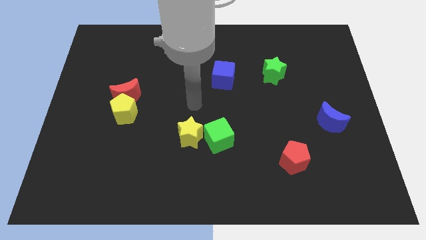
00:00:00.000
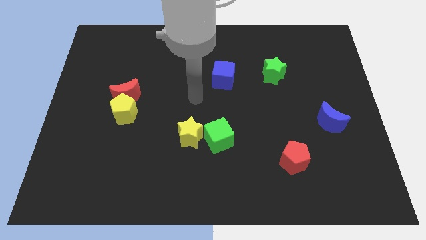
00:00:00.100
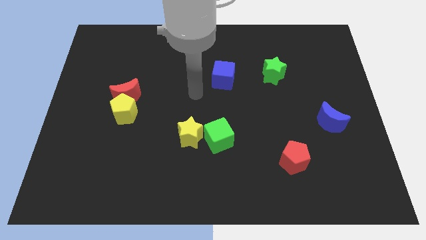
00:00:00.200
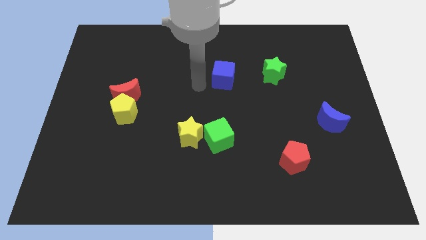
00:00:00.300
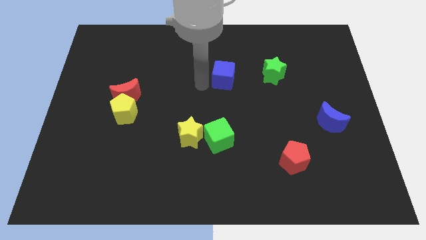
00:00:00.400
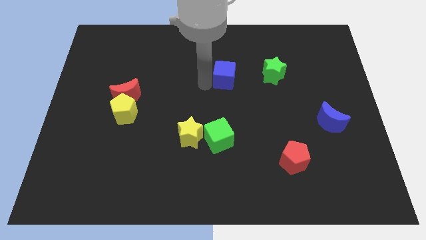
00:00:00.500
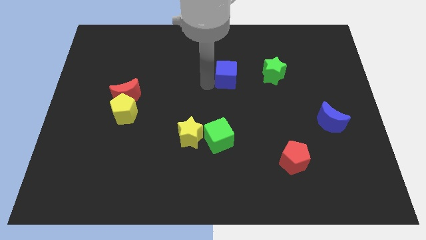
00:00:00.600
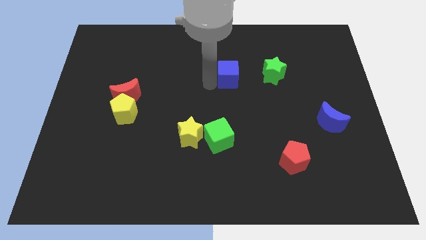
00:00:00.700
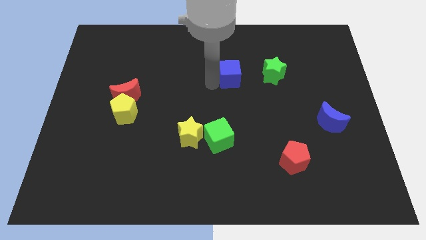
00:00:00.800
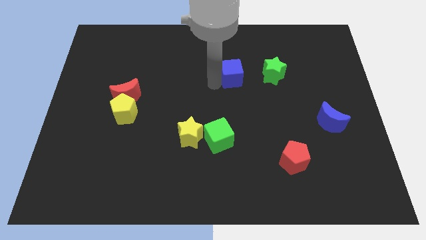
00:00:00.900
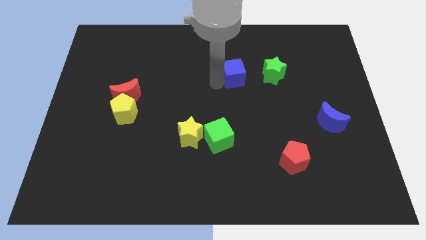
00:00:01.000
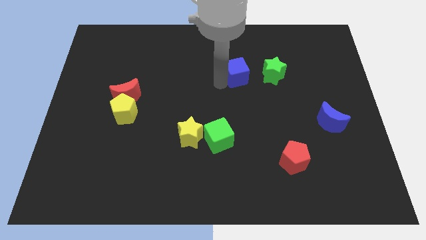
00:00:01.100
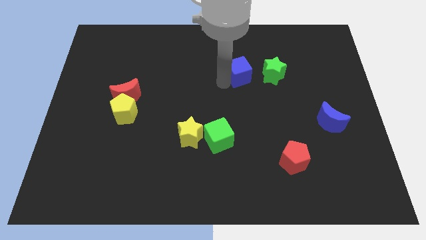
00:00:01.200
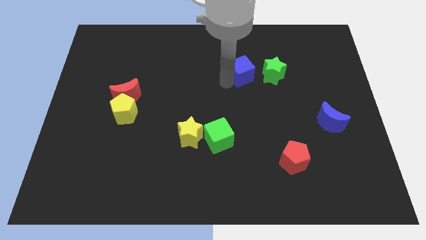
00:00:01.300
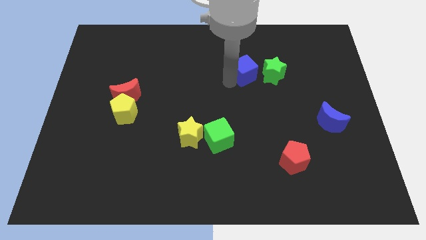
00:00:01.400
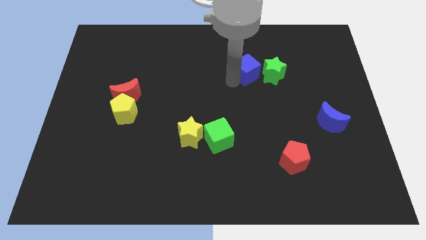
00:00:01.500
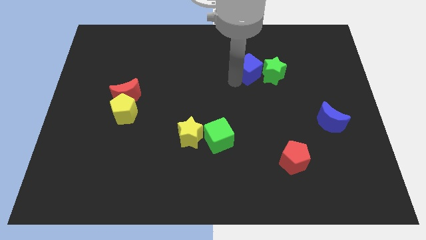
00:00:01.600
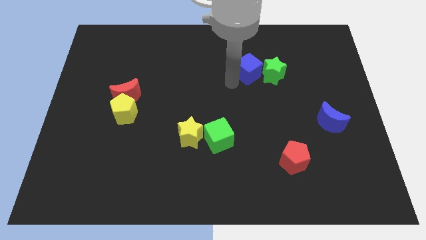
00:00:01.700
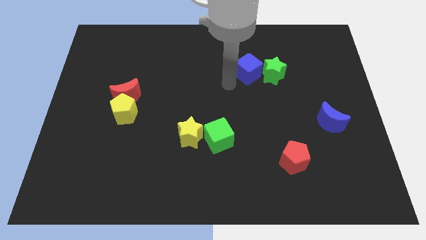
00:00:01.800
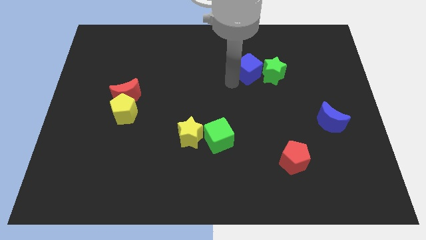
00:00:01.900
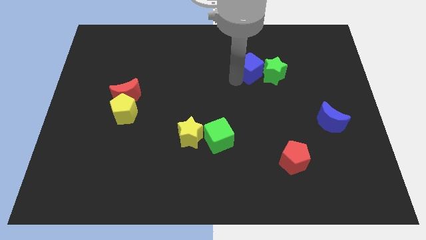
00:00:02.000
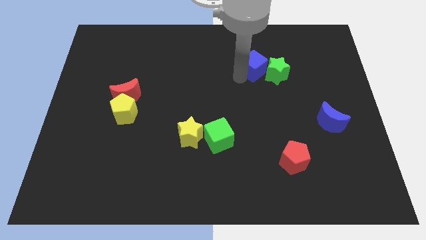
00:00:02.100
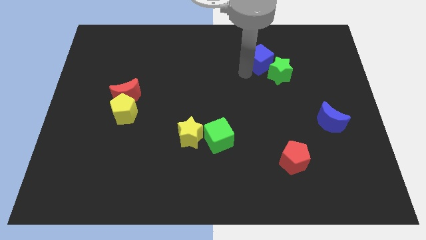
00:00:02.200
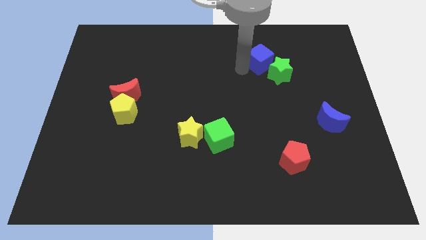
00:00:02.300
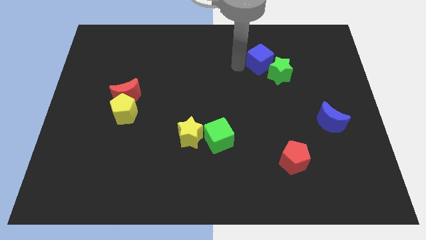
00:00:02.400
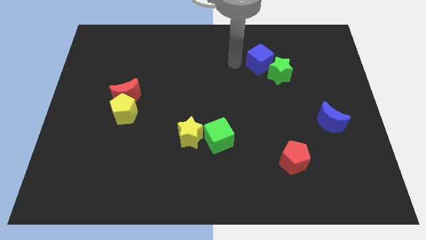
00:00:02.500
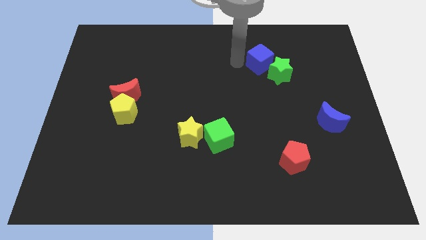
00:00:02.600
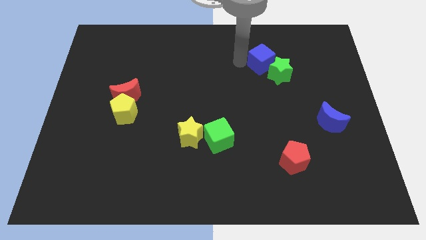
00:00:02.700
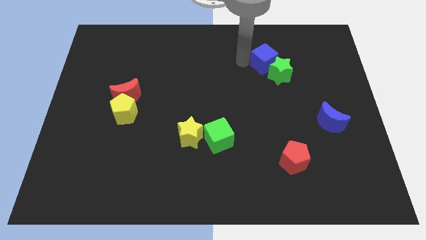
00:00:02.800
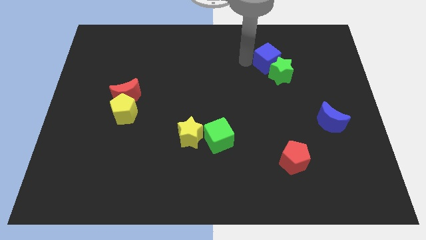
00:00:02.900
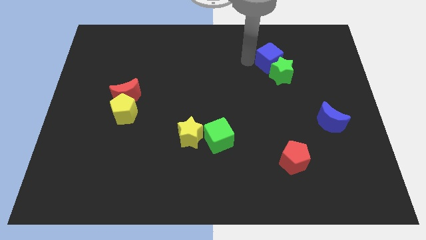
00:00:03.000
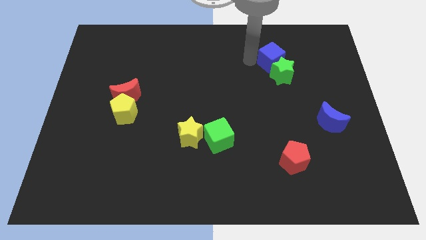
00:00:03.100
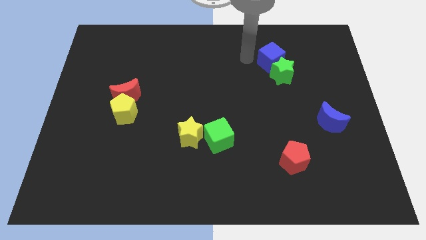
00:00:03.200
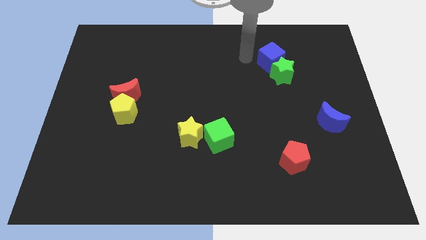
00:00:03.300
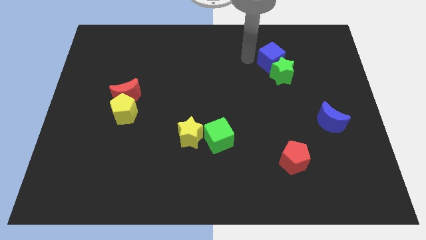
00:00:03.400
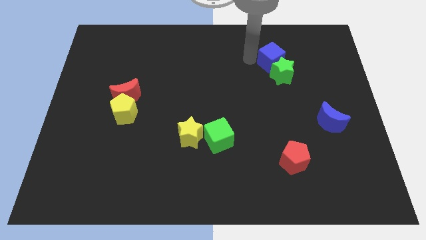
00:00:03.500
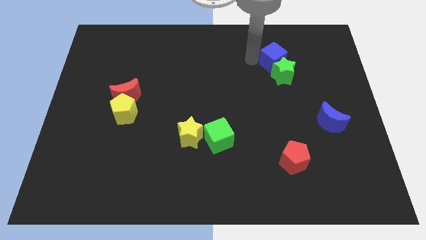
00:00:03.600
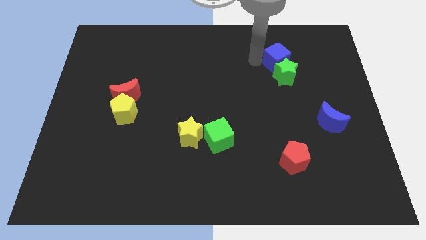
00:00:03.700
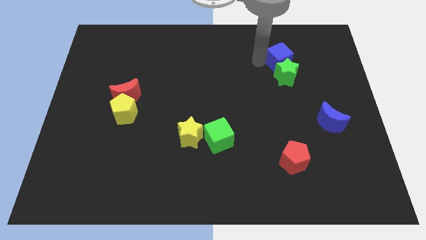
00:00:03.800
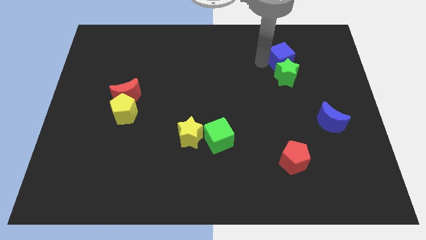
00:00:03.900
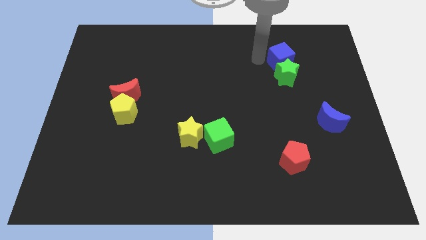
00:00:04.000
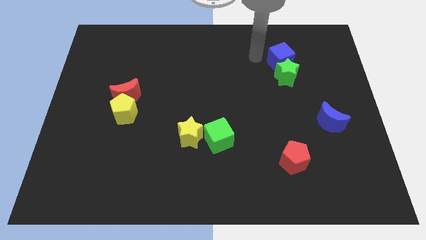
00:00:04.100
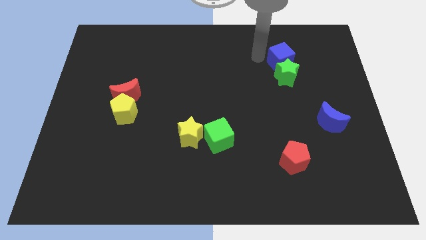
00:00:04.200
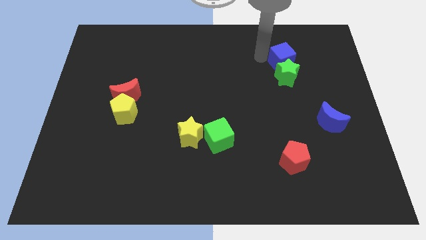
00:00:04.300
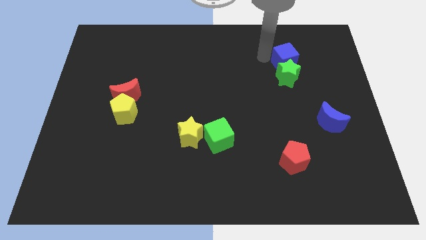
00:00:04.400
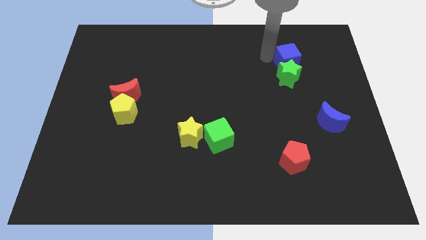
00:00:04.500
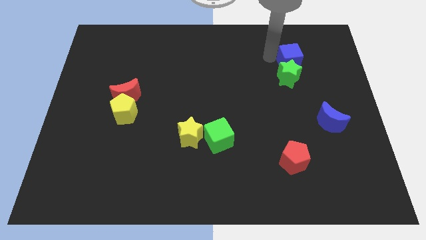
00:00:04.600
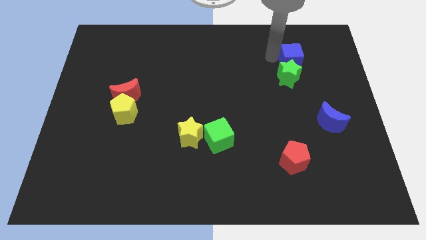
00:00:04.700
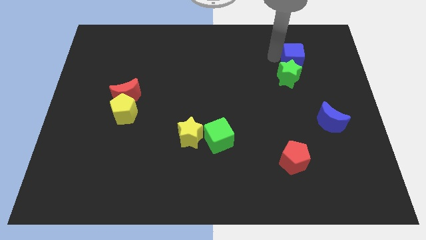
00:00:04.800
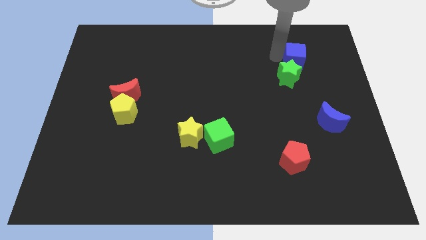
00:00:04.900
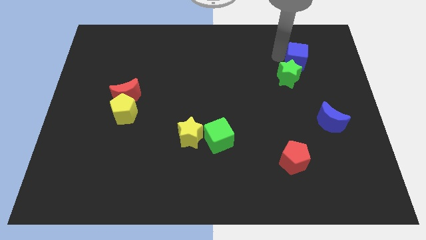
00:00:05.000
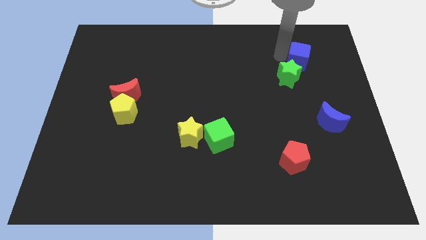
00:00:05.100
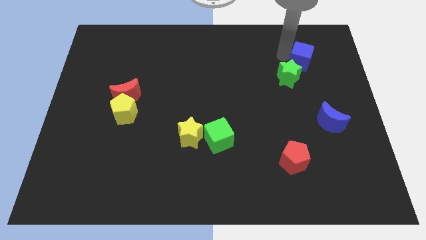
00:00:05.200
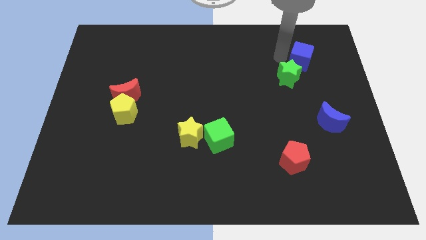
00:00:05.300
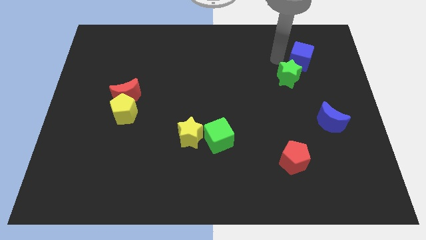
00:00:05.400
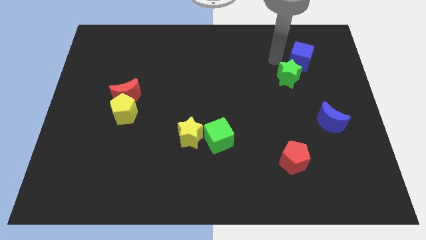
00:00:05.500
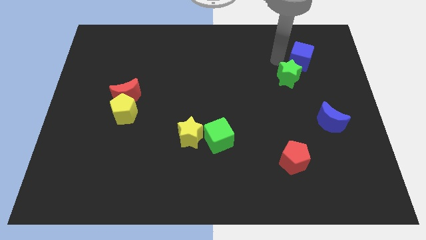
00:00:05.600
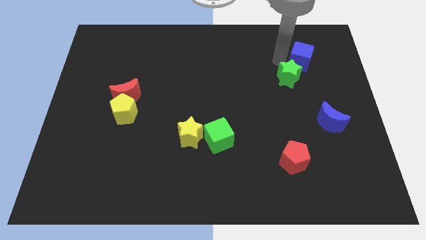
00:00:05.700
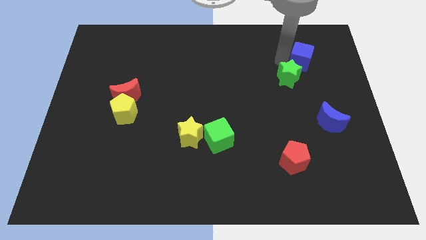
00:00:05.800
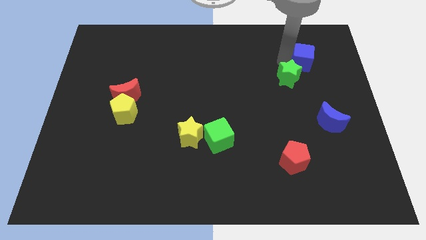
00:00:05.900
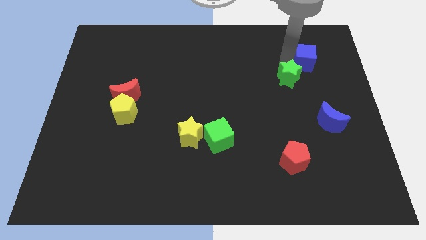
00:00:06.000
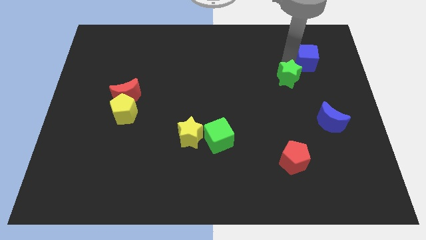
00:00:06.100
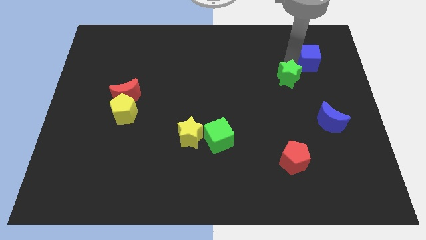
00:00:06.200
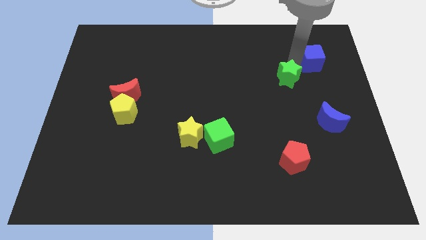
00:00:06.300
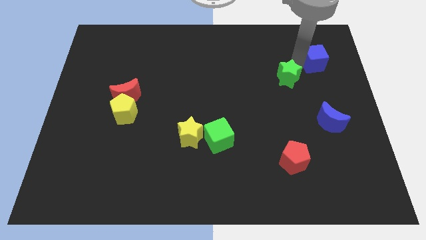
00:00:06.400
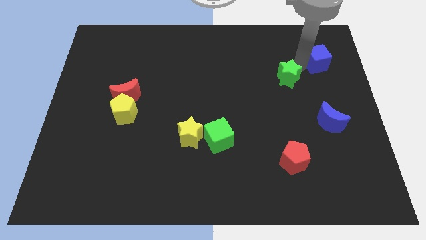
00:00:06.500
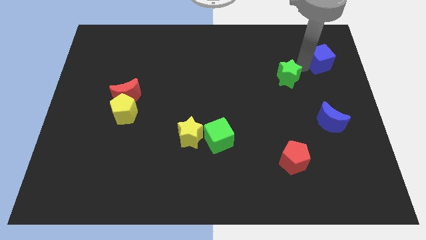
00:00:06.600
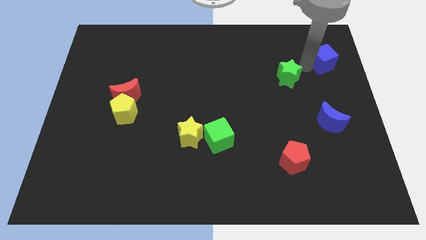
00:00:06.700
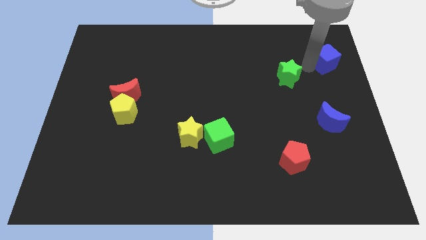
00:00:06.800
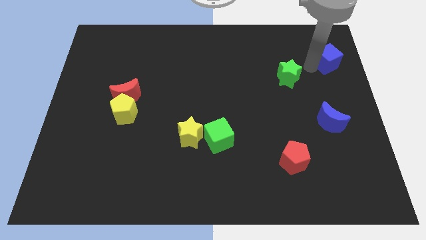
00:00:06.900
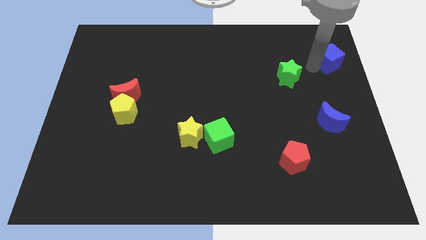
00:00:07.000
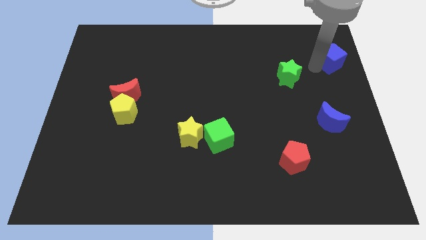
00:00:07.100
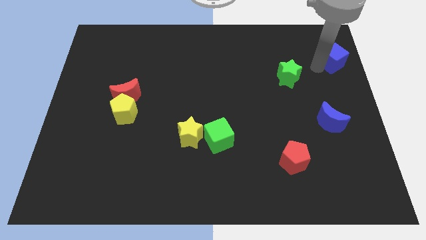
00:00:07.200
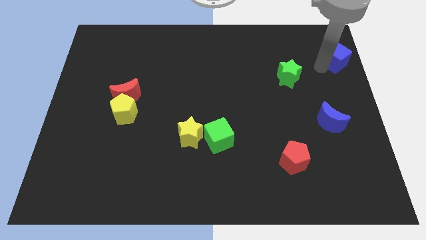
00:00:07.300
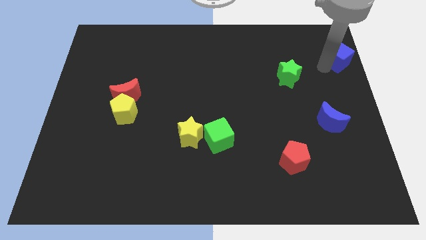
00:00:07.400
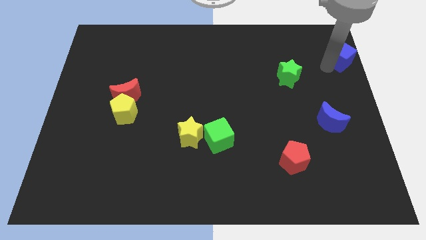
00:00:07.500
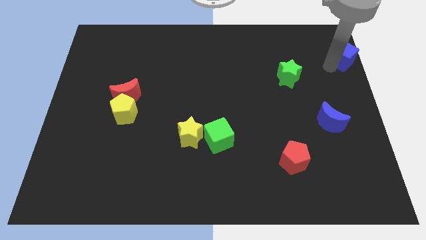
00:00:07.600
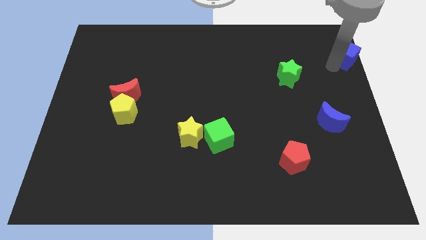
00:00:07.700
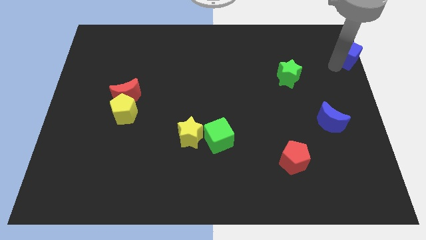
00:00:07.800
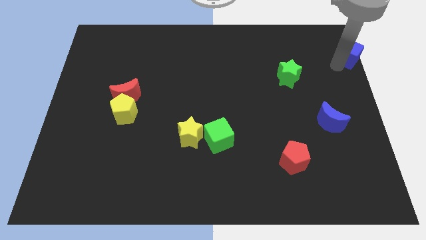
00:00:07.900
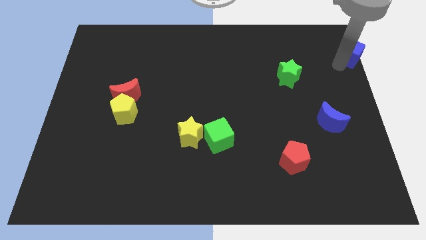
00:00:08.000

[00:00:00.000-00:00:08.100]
put the blue cube to the top right corner
